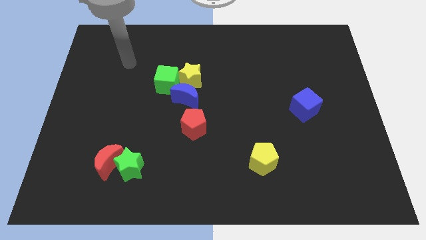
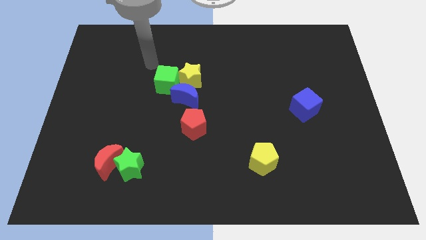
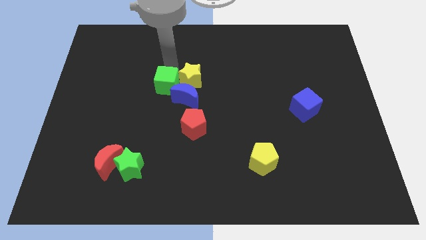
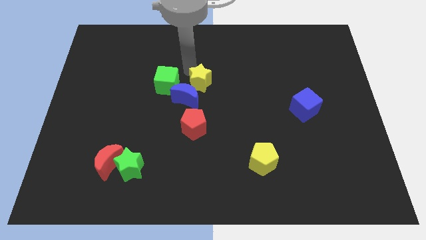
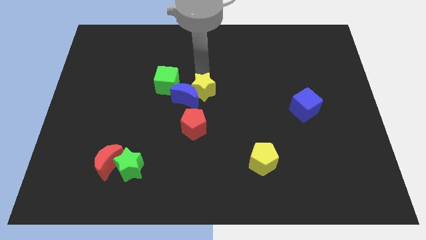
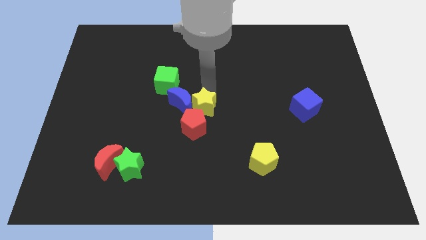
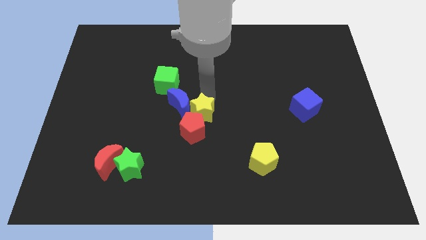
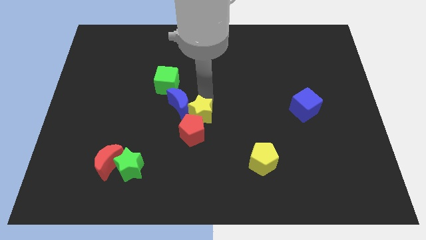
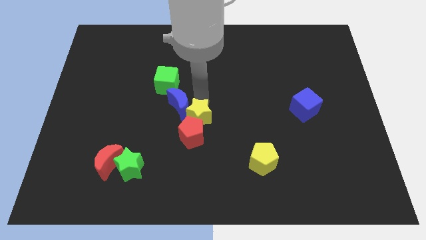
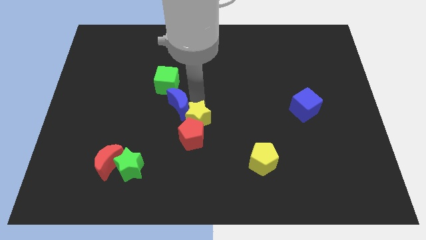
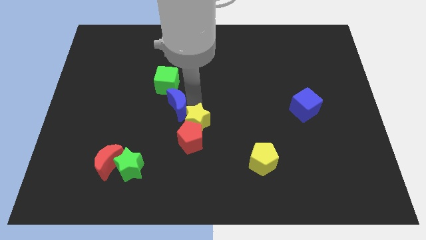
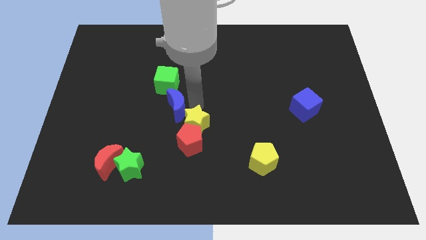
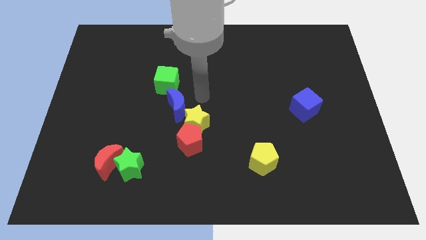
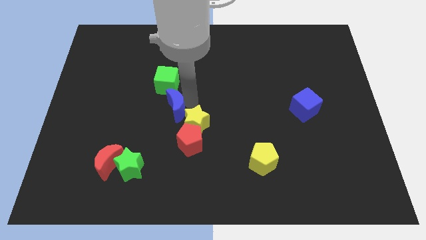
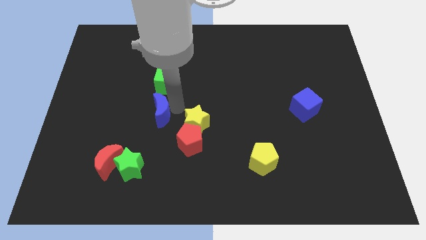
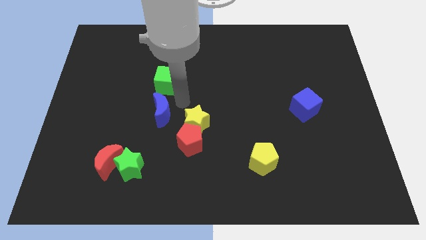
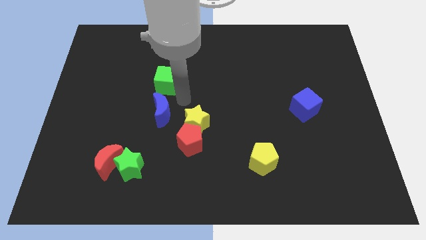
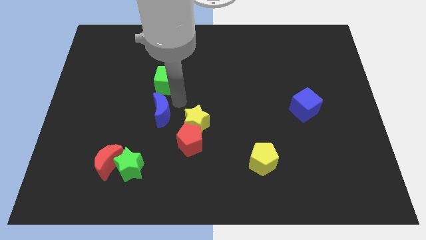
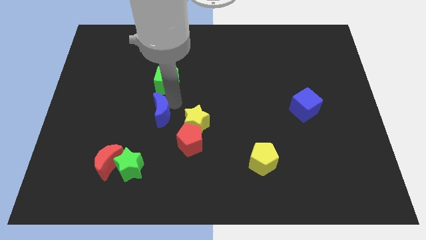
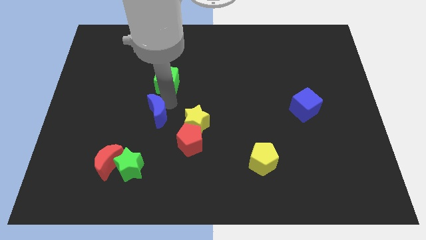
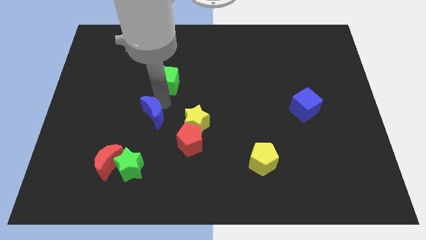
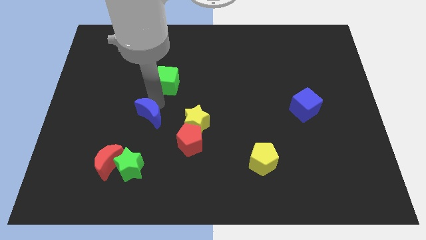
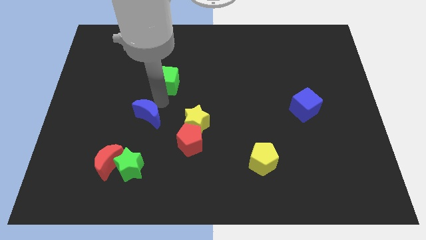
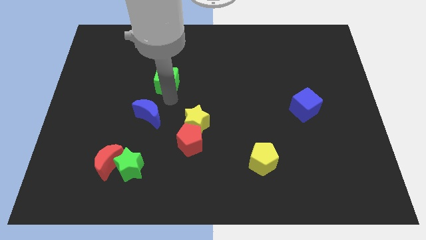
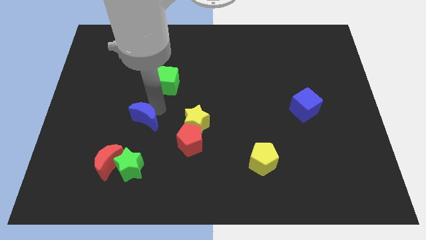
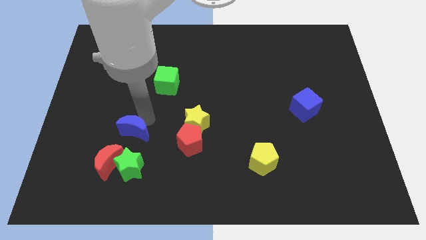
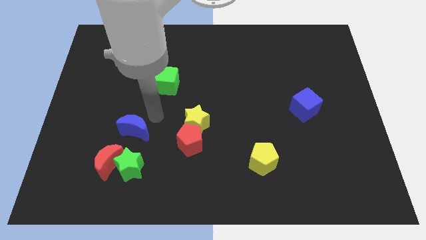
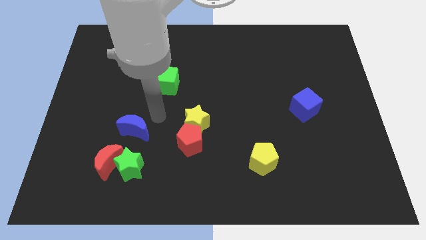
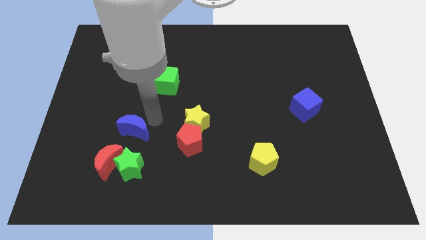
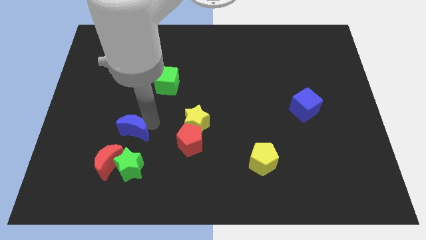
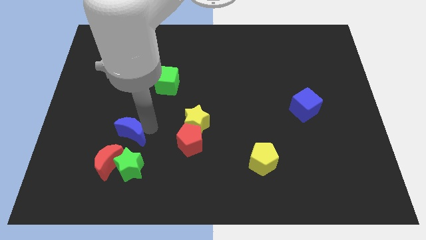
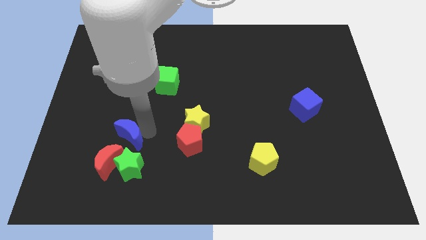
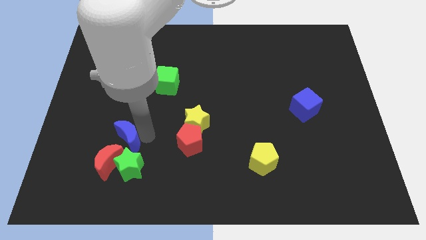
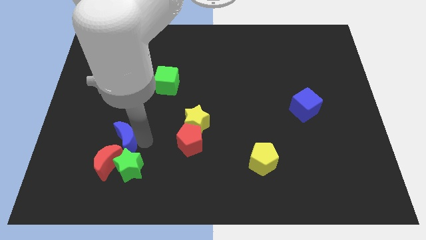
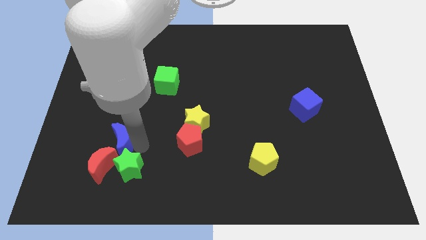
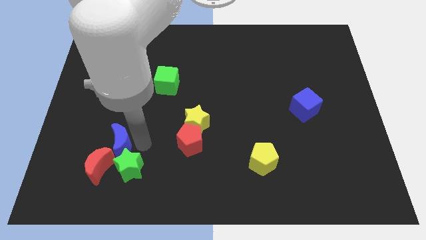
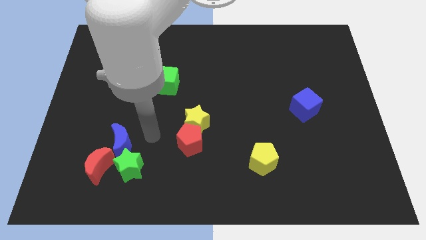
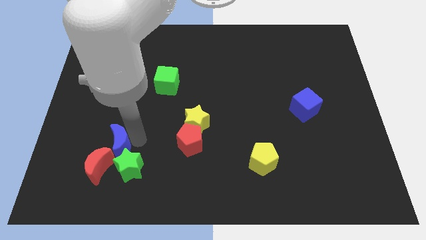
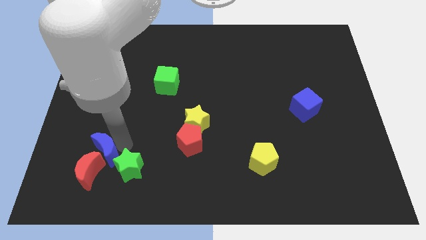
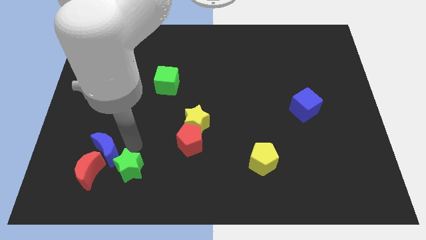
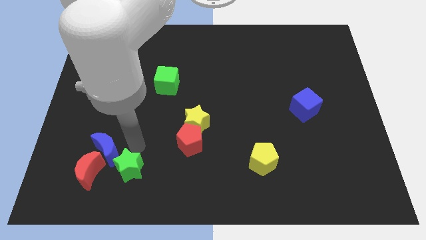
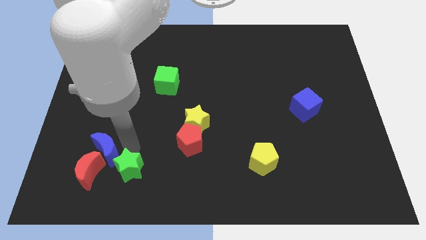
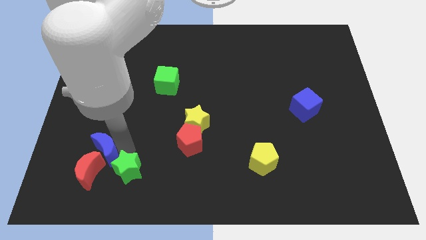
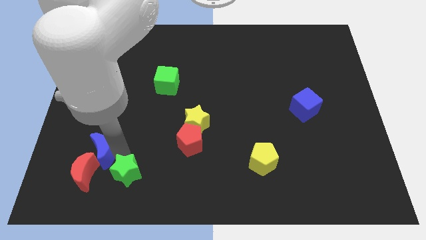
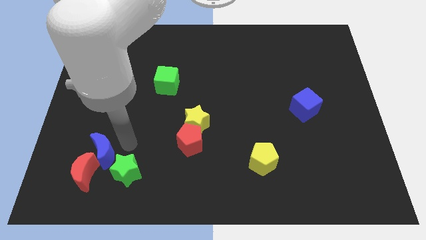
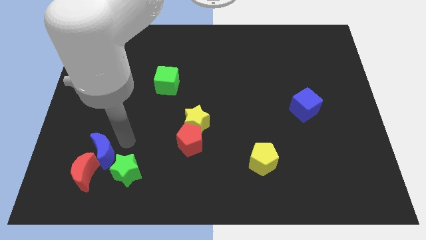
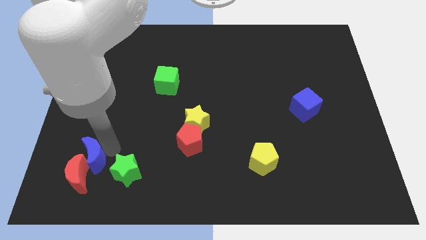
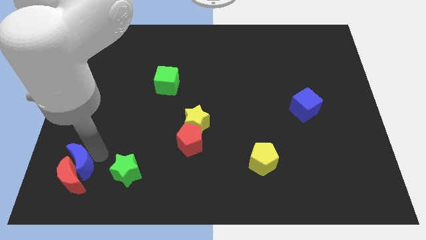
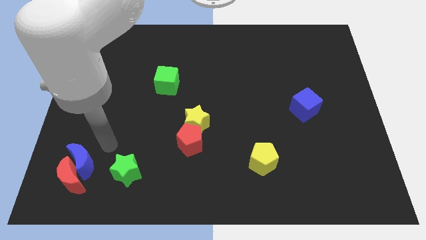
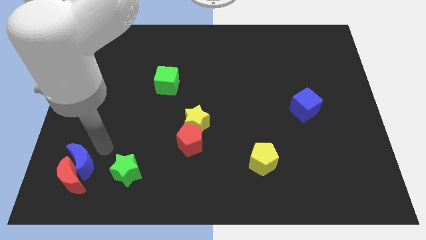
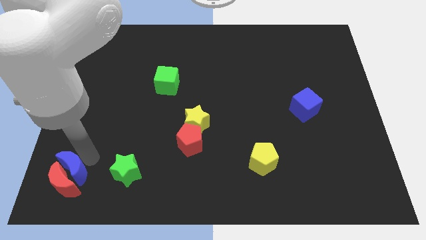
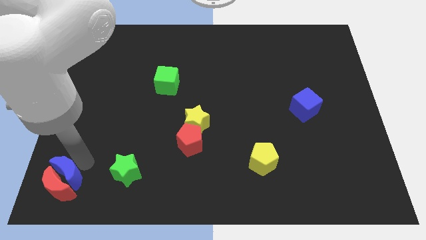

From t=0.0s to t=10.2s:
push the blue moon to the bottom left corner

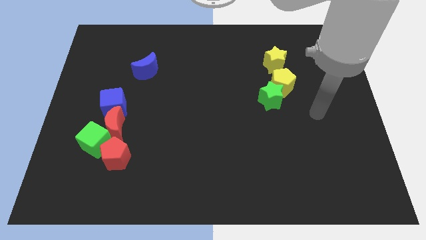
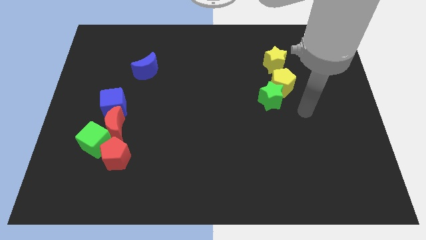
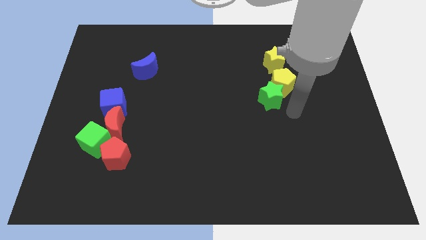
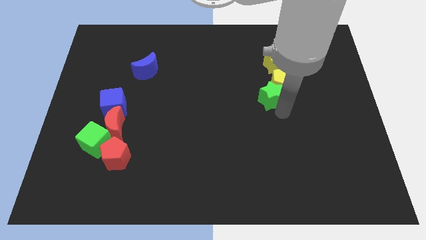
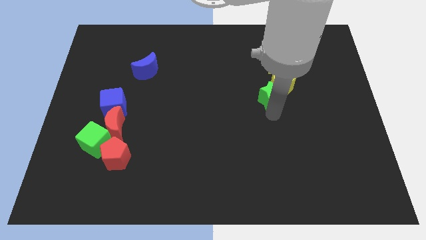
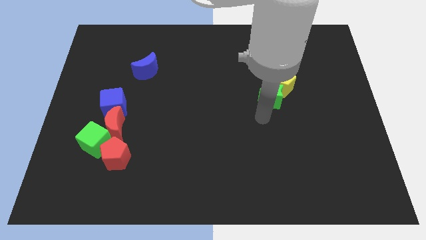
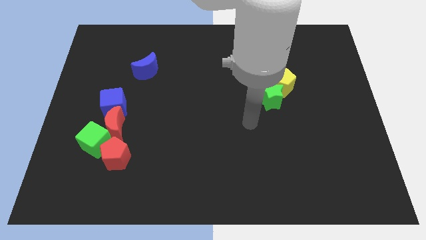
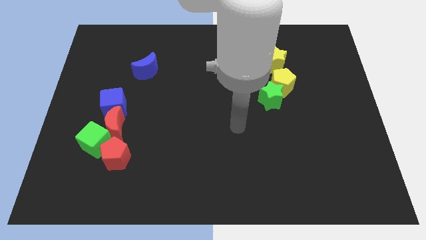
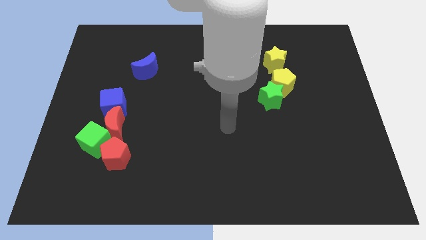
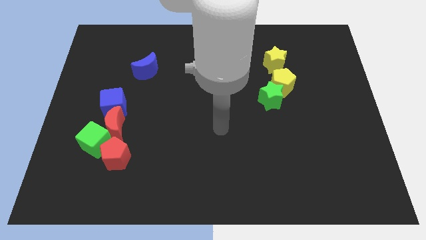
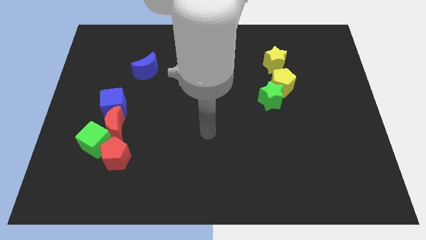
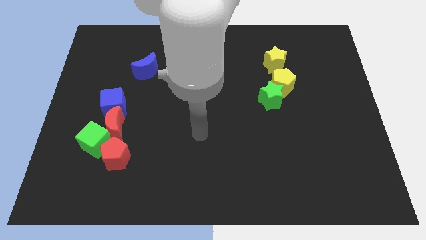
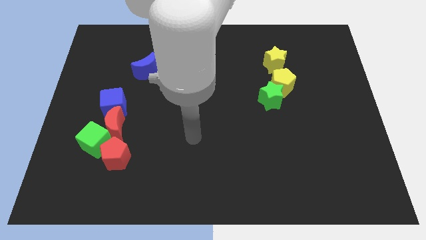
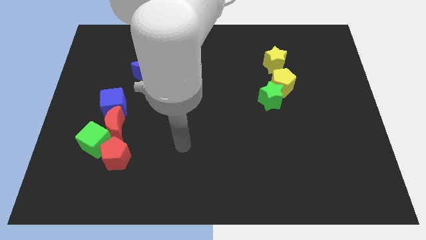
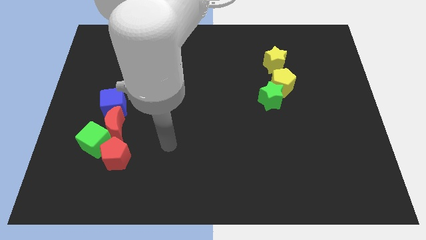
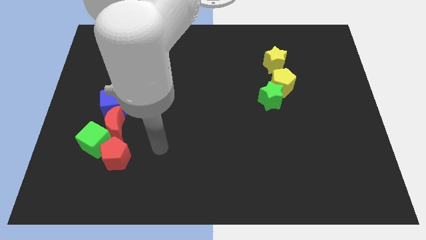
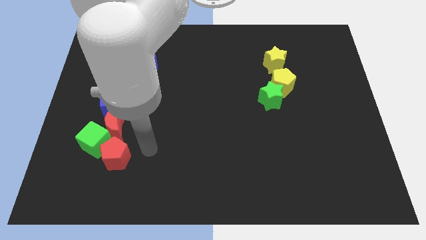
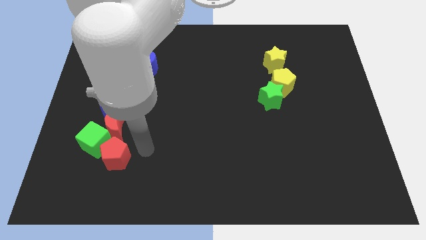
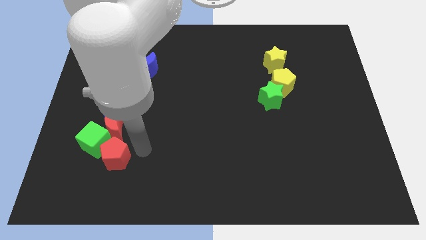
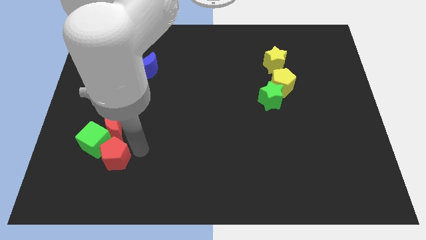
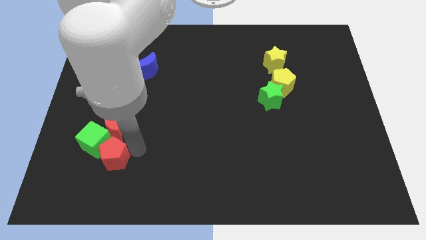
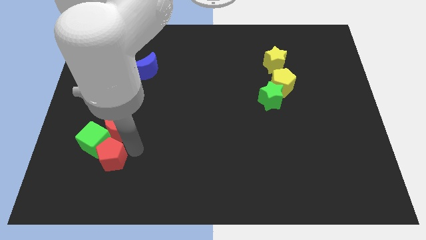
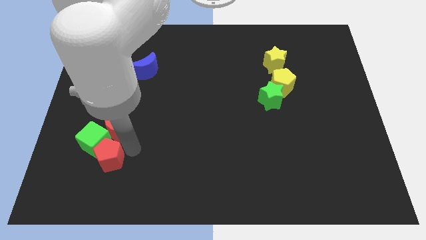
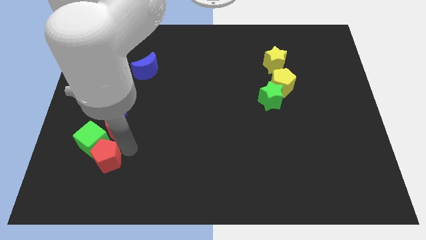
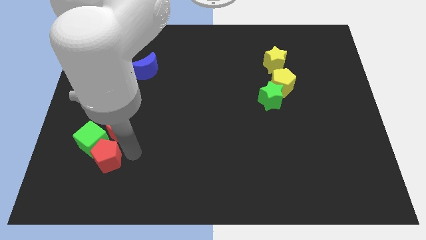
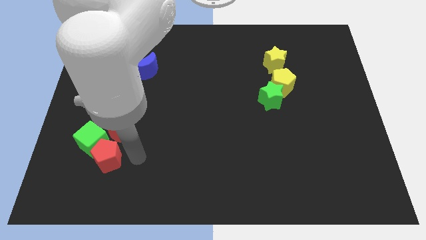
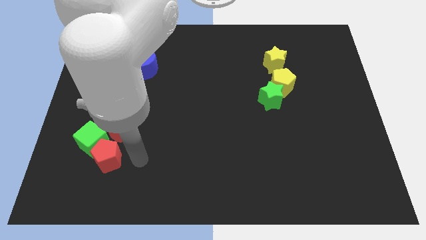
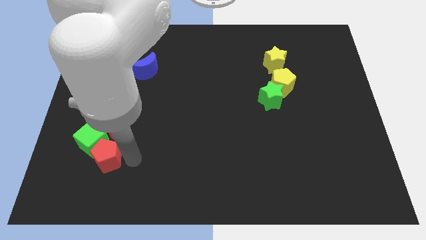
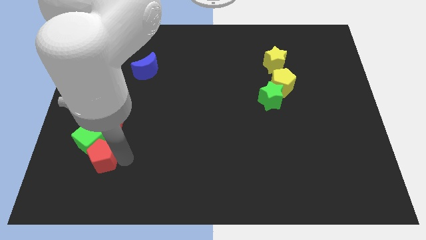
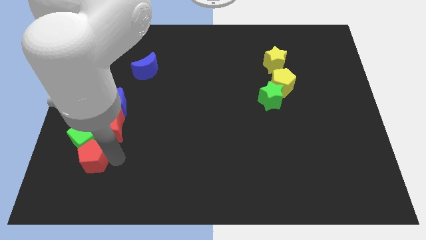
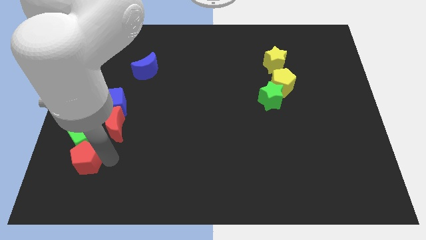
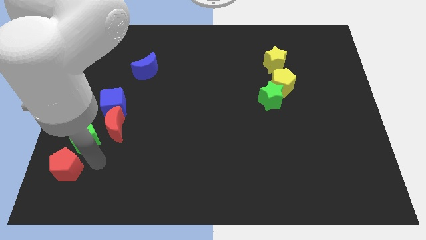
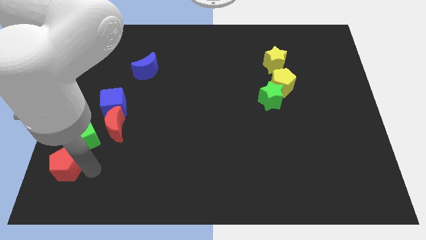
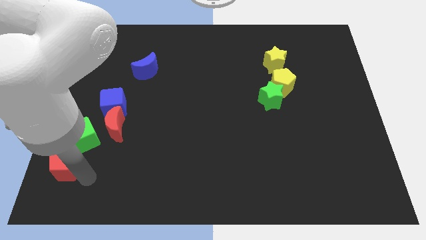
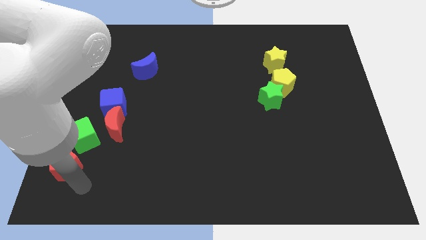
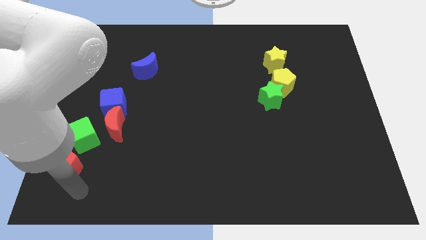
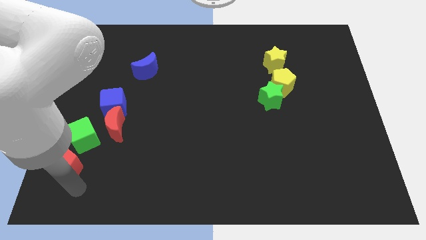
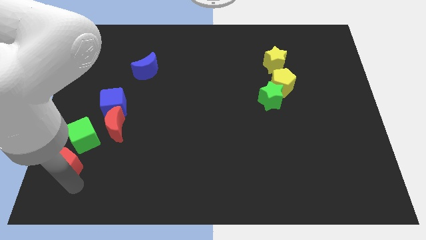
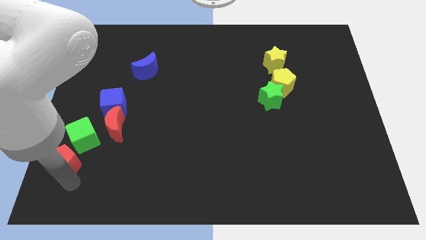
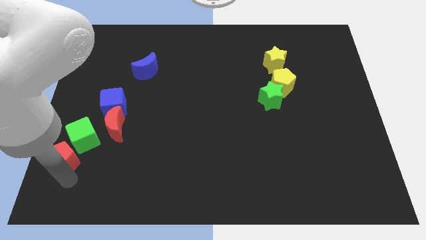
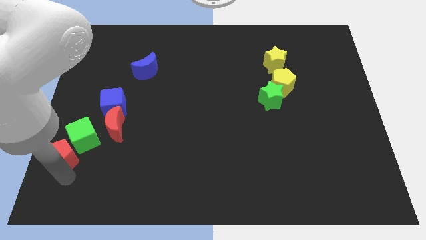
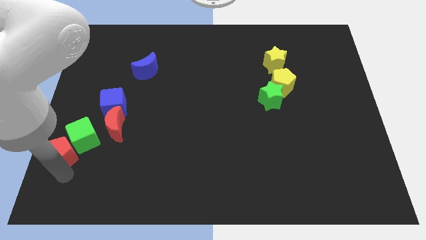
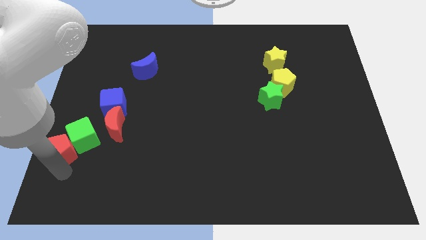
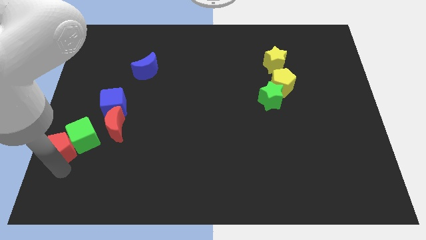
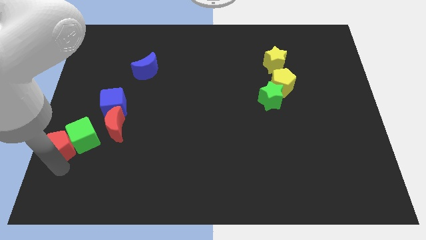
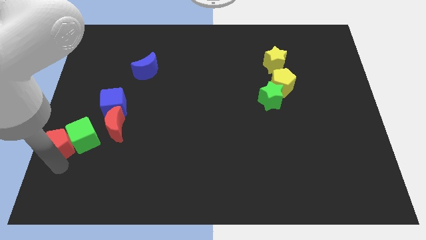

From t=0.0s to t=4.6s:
put the red pentagon to the center left
